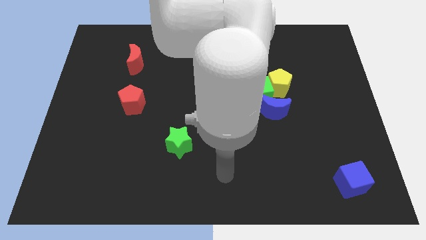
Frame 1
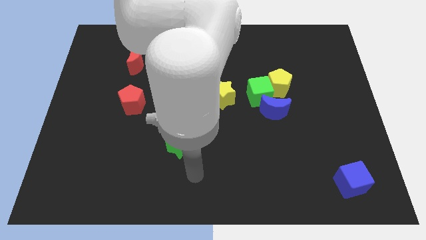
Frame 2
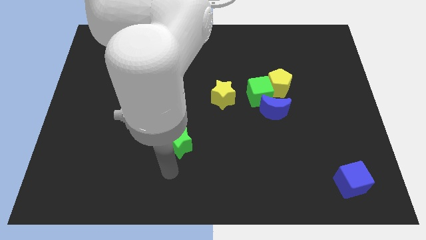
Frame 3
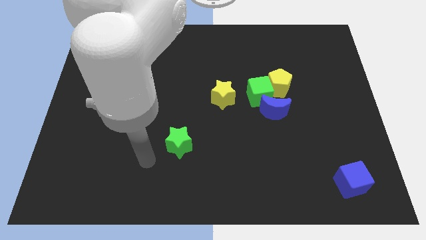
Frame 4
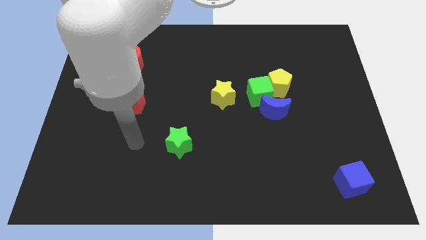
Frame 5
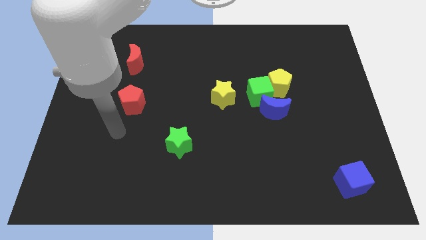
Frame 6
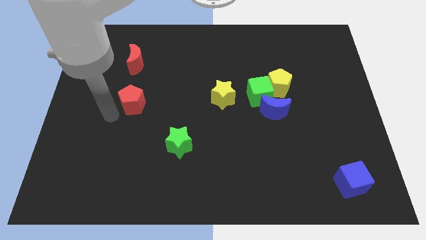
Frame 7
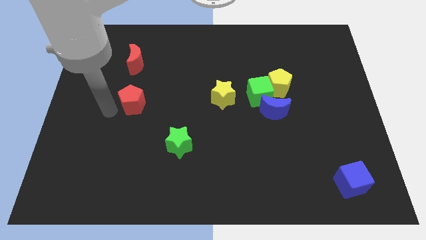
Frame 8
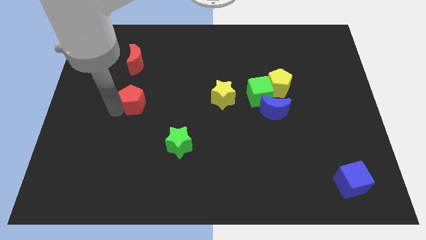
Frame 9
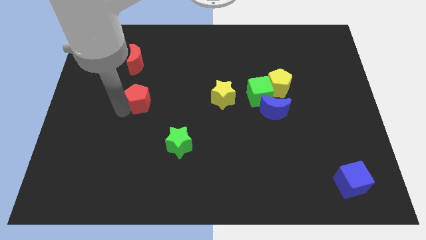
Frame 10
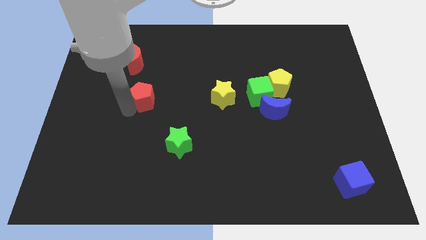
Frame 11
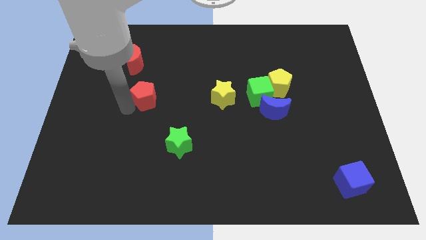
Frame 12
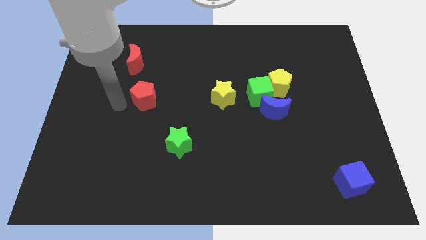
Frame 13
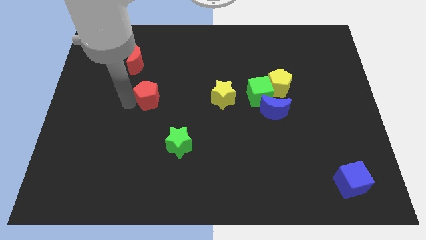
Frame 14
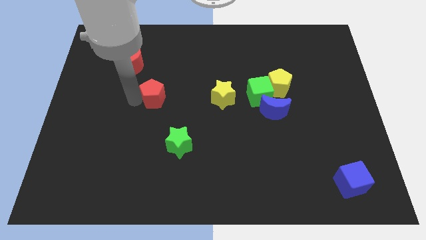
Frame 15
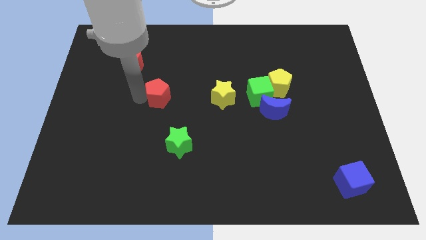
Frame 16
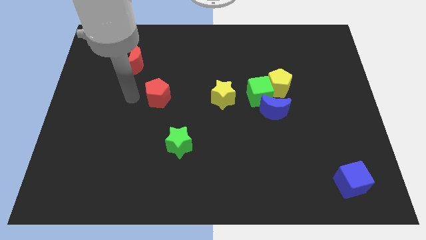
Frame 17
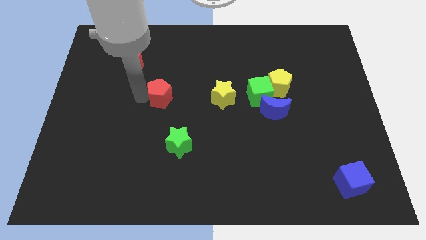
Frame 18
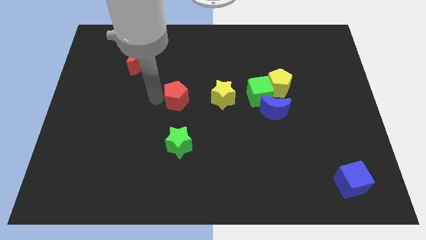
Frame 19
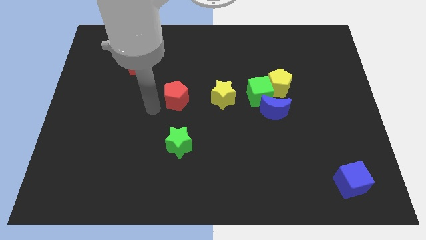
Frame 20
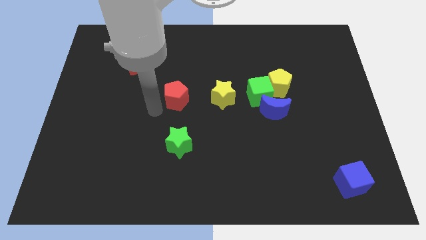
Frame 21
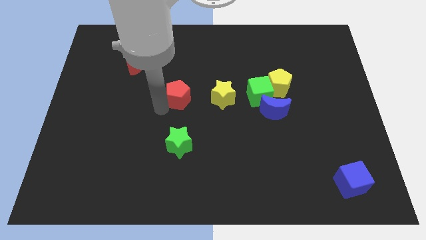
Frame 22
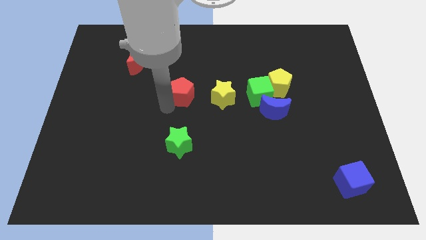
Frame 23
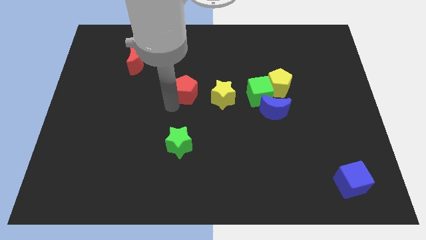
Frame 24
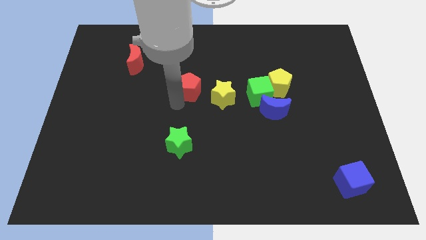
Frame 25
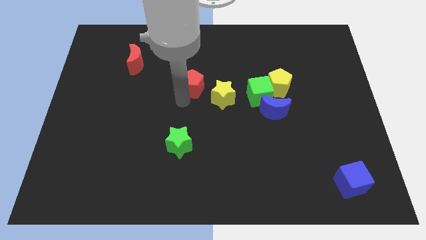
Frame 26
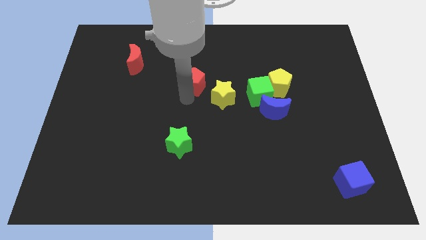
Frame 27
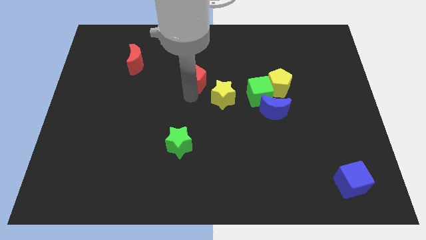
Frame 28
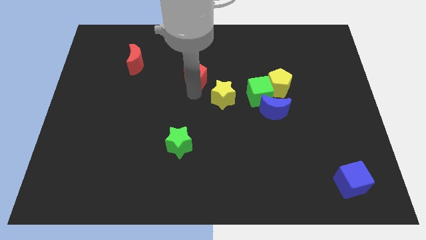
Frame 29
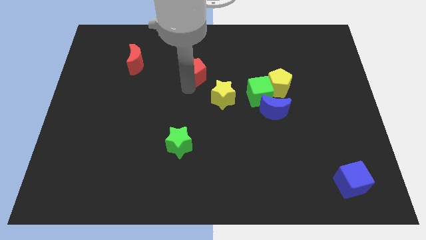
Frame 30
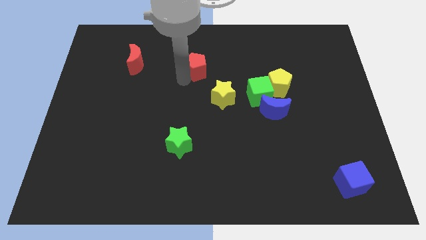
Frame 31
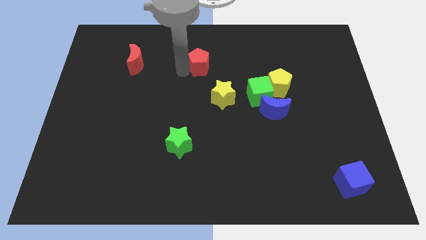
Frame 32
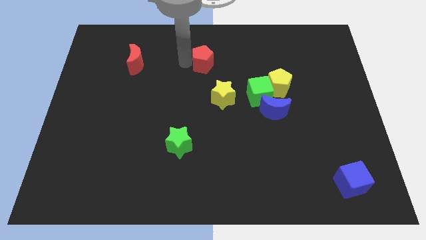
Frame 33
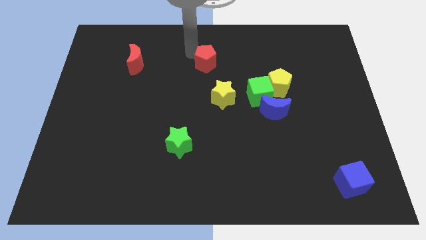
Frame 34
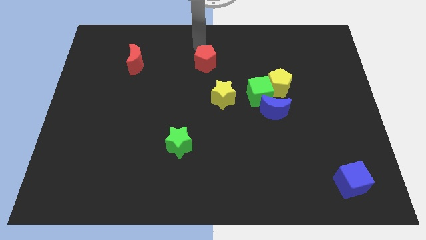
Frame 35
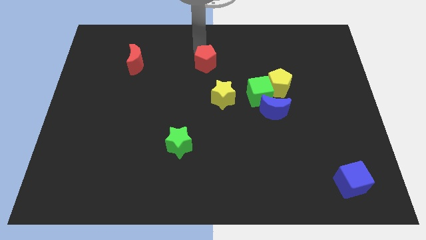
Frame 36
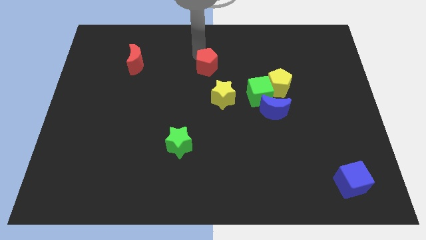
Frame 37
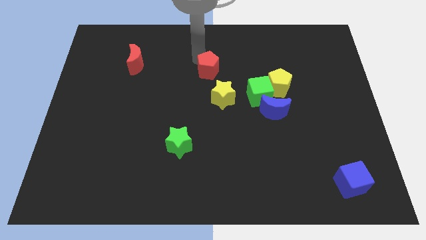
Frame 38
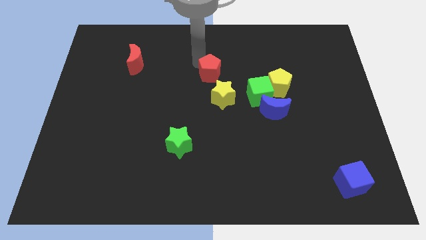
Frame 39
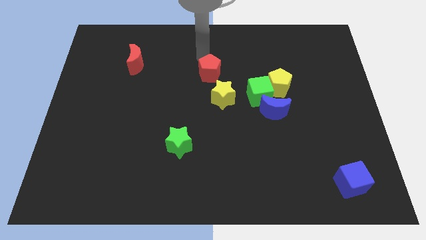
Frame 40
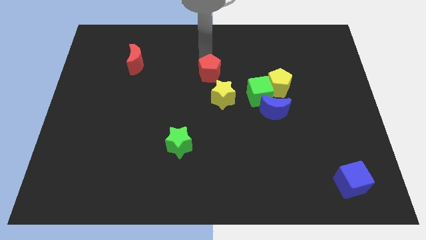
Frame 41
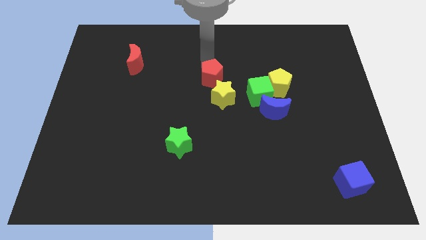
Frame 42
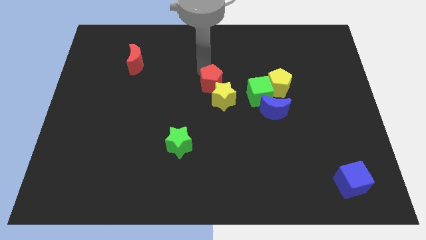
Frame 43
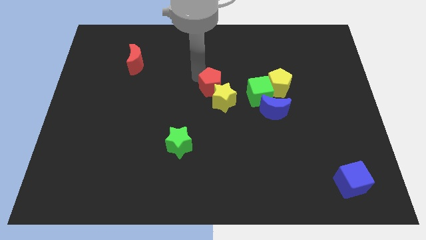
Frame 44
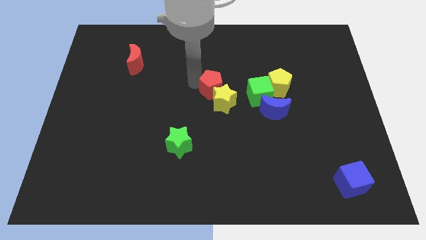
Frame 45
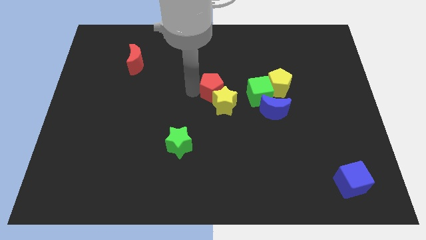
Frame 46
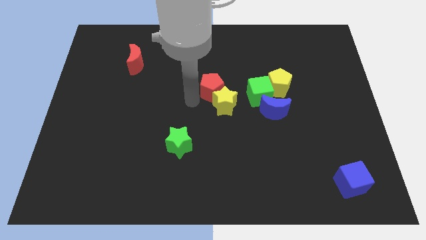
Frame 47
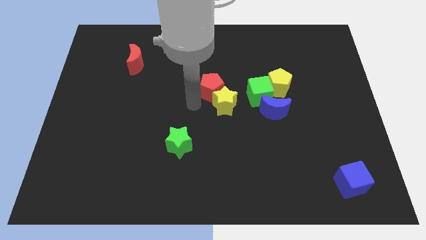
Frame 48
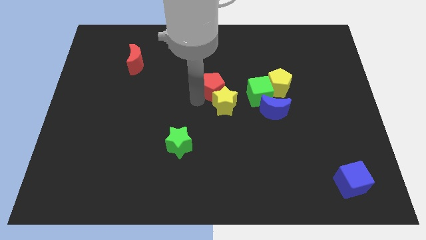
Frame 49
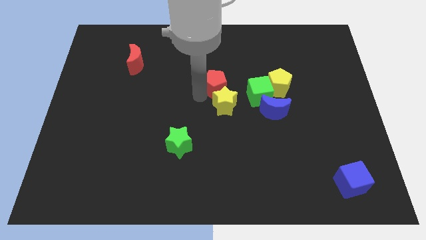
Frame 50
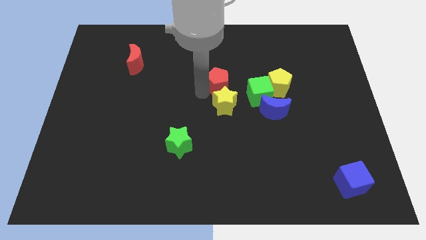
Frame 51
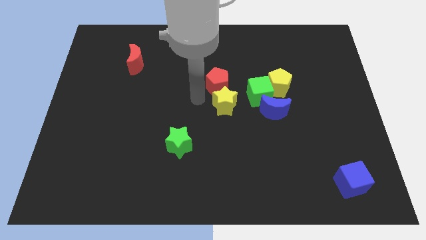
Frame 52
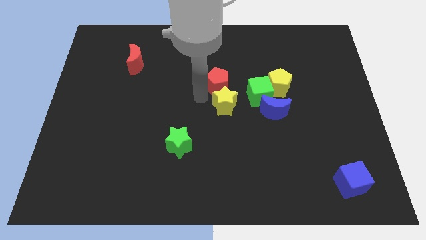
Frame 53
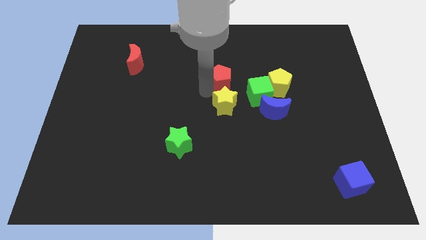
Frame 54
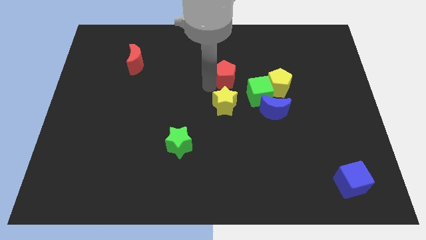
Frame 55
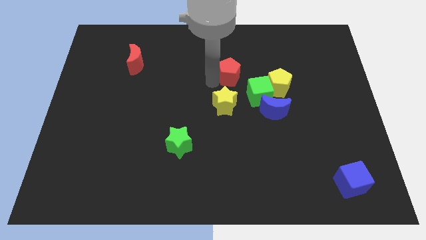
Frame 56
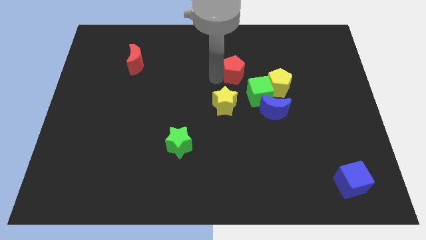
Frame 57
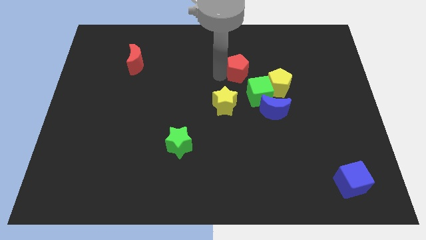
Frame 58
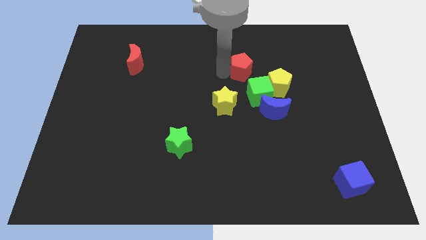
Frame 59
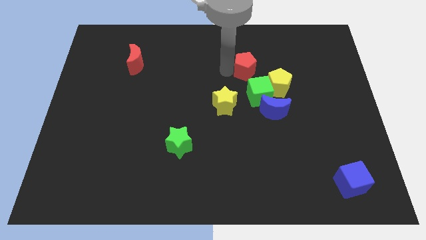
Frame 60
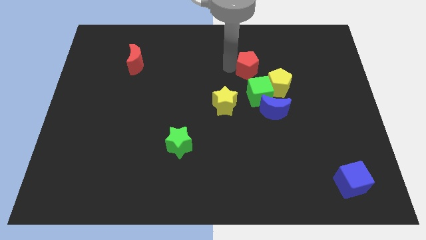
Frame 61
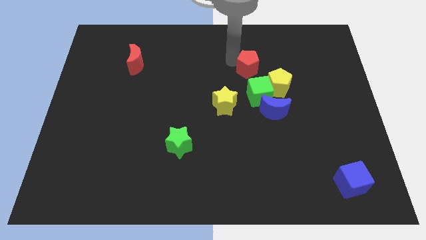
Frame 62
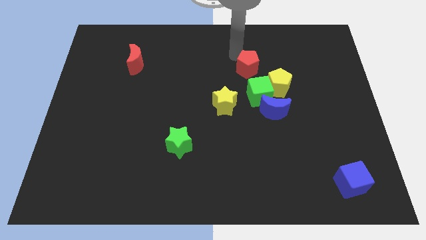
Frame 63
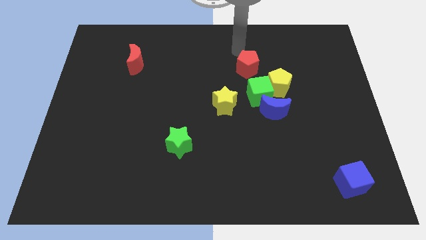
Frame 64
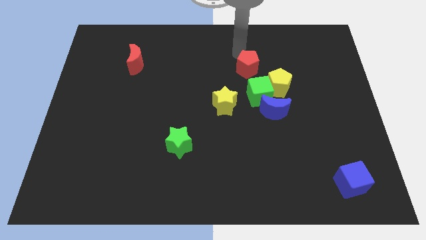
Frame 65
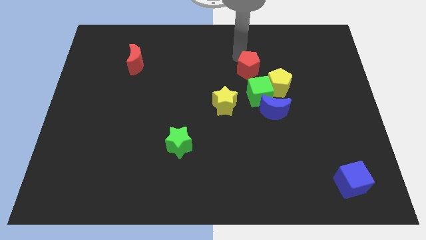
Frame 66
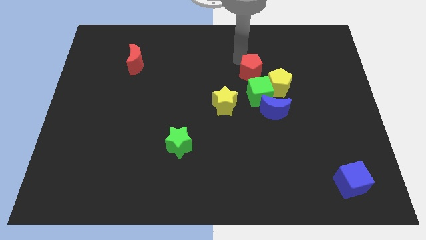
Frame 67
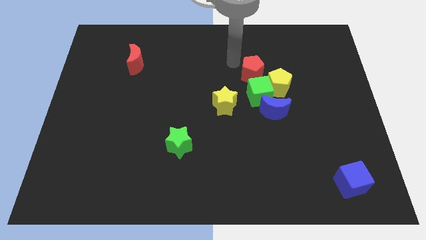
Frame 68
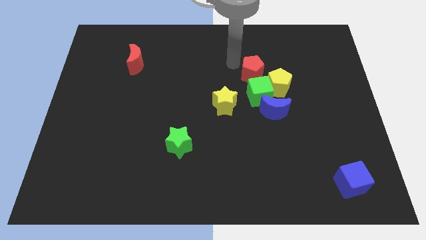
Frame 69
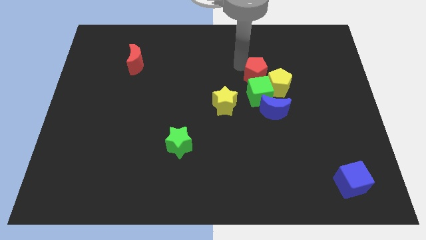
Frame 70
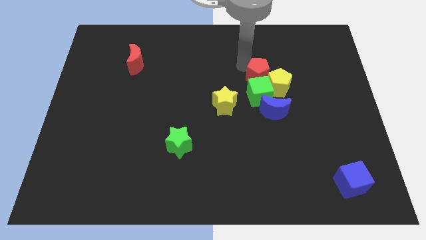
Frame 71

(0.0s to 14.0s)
move the red pentagon close to the yellow pentagon
